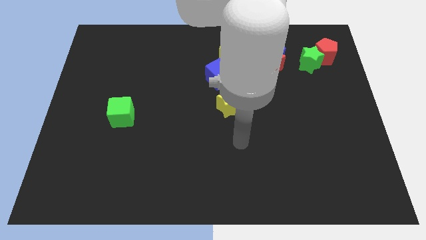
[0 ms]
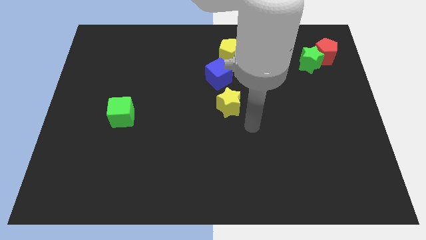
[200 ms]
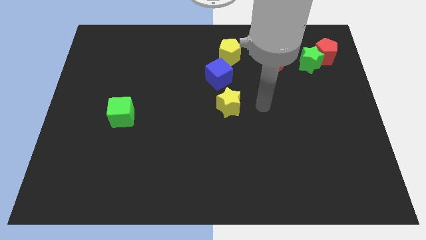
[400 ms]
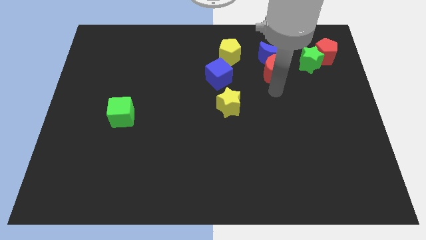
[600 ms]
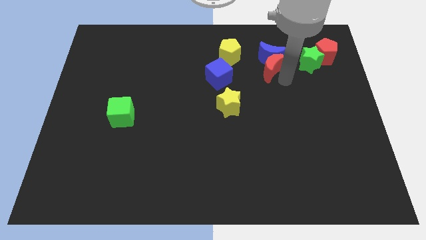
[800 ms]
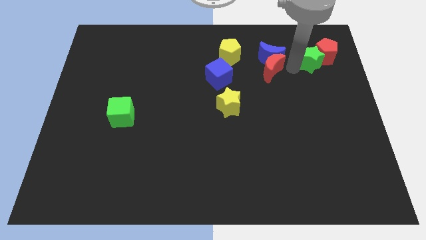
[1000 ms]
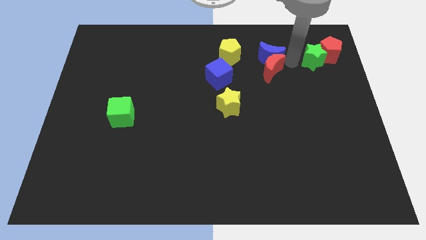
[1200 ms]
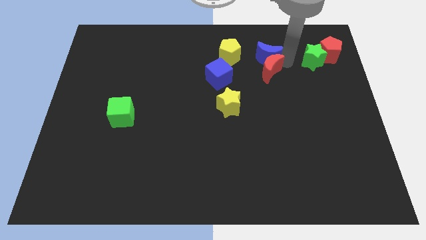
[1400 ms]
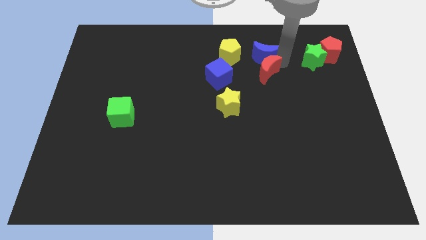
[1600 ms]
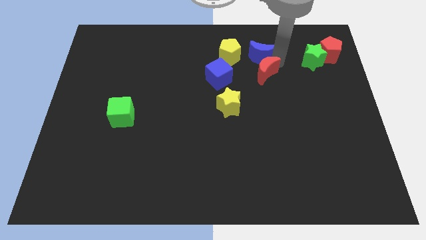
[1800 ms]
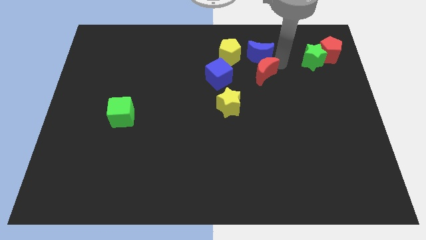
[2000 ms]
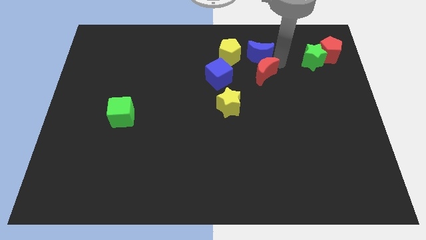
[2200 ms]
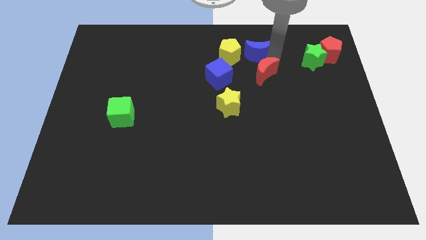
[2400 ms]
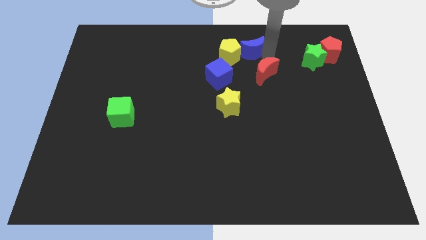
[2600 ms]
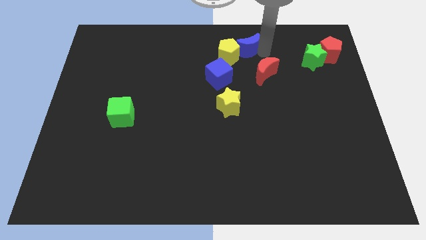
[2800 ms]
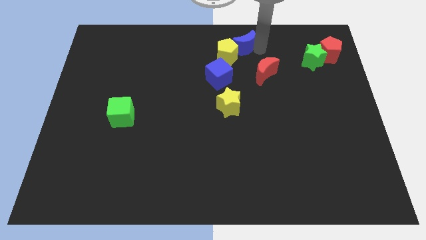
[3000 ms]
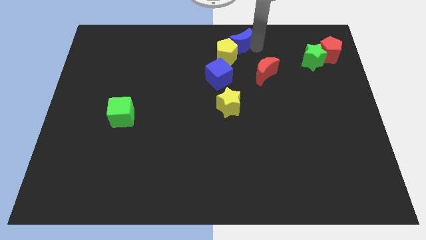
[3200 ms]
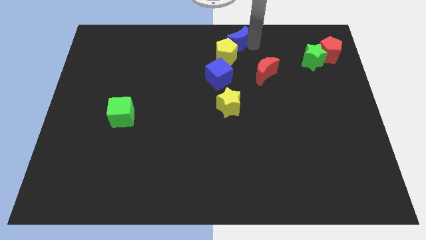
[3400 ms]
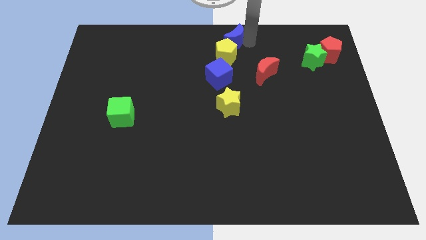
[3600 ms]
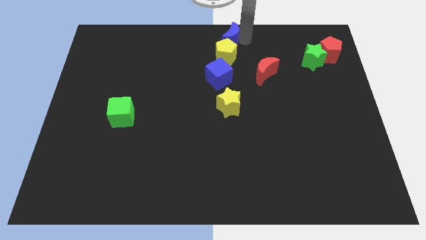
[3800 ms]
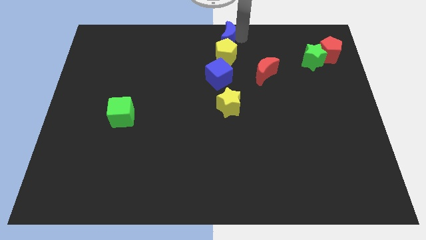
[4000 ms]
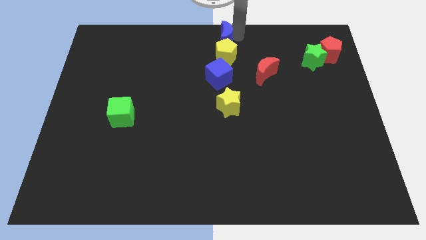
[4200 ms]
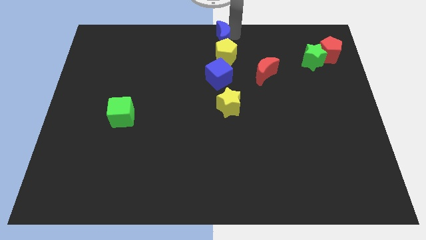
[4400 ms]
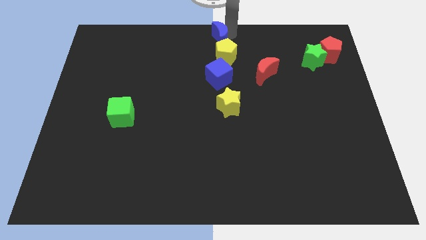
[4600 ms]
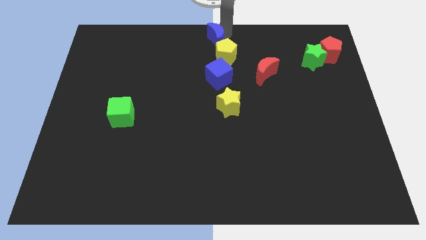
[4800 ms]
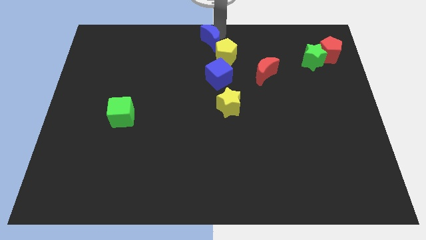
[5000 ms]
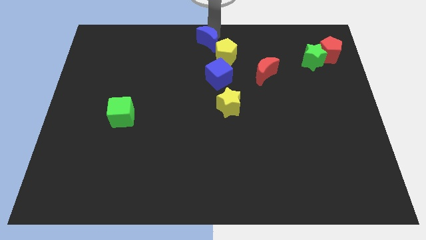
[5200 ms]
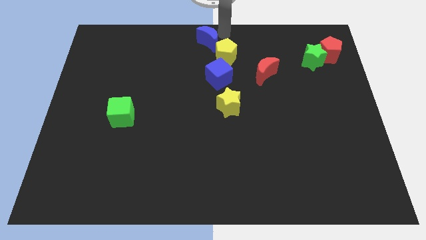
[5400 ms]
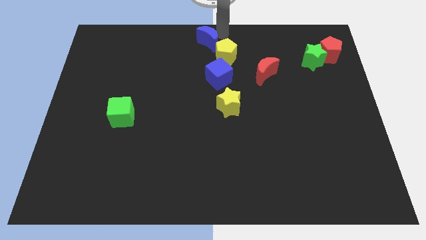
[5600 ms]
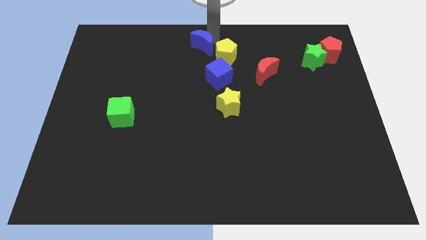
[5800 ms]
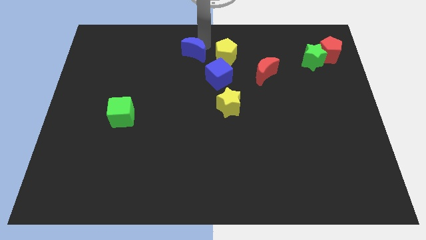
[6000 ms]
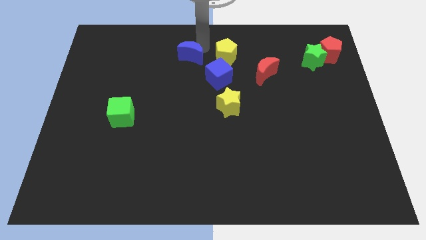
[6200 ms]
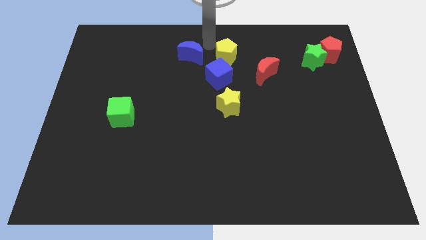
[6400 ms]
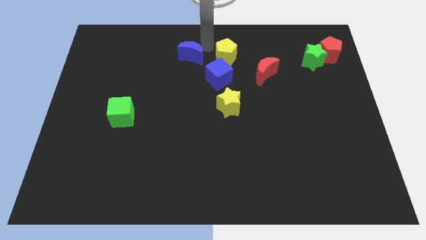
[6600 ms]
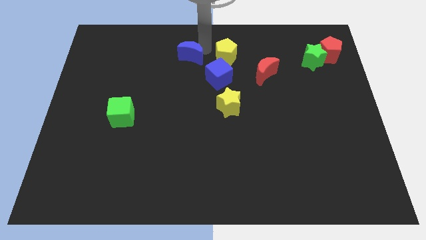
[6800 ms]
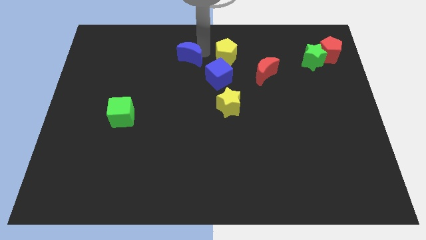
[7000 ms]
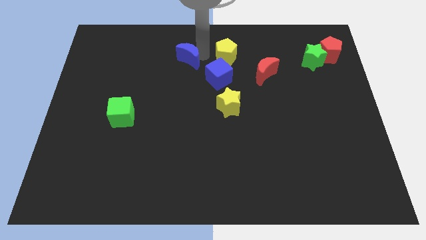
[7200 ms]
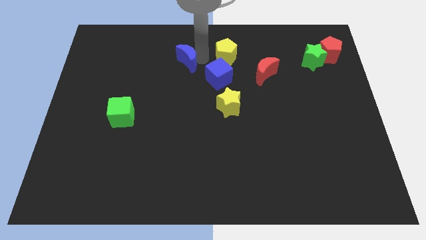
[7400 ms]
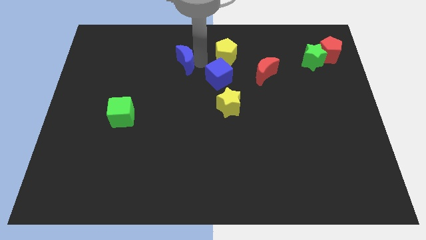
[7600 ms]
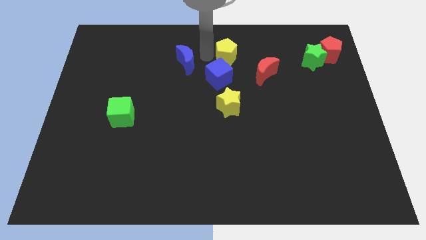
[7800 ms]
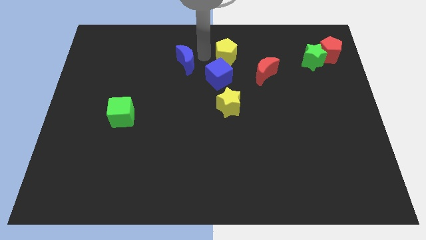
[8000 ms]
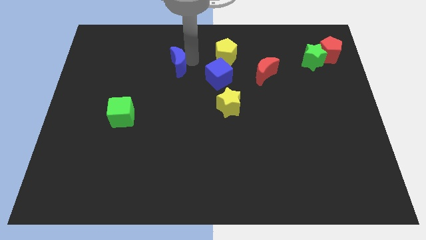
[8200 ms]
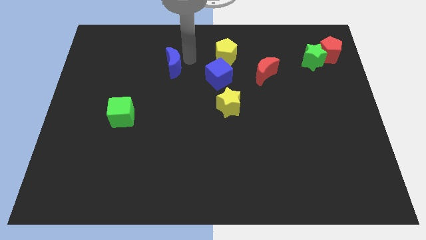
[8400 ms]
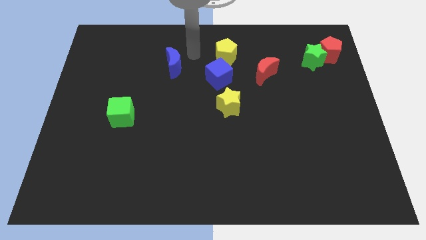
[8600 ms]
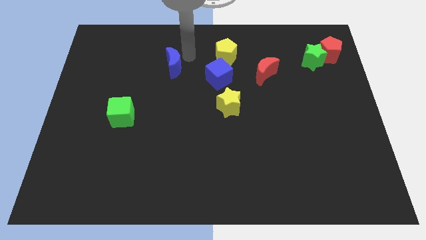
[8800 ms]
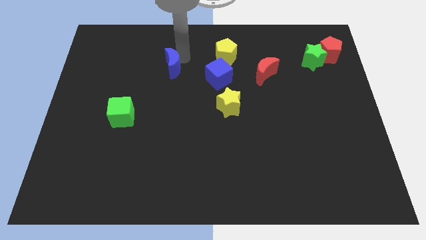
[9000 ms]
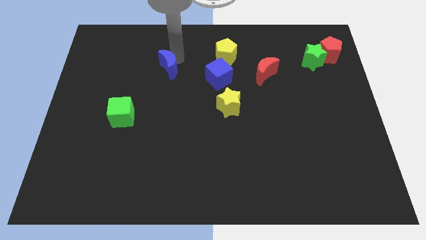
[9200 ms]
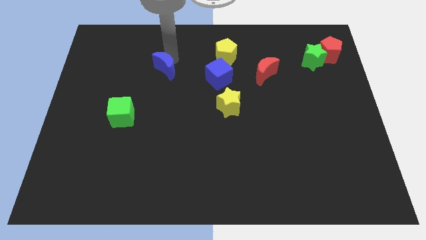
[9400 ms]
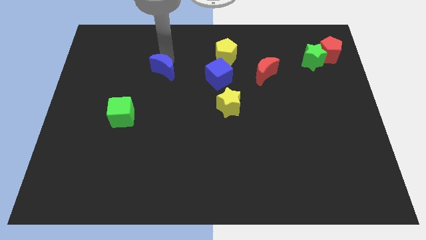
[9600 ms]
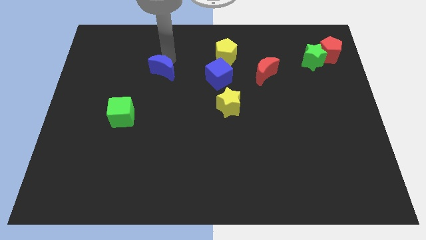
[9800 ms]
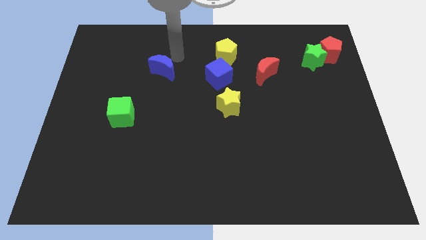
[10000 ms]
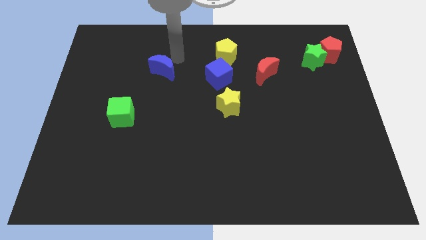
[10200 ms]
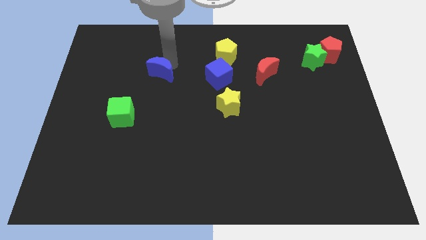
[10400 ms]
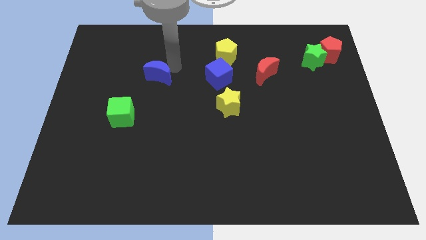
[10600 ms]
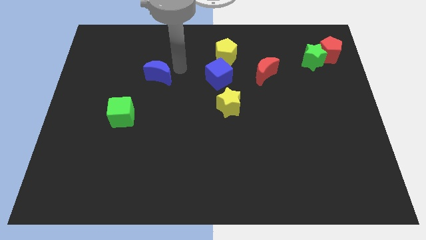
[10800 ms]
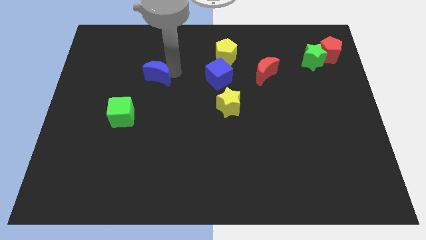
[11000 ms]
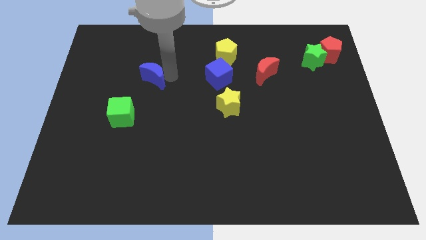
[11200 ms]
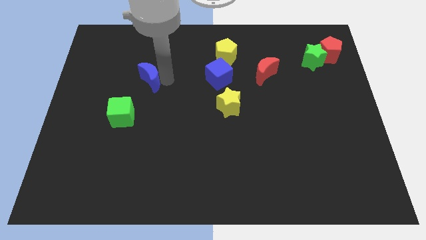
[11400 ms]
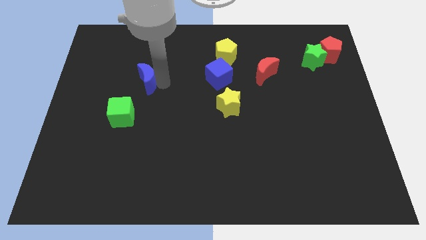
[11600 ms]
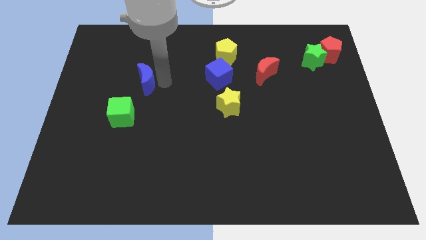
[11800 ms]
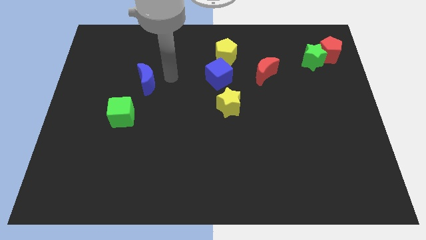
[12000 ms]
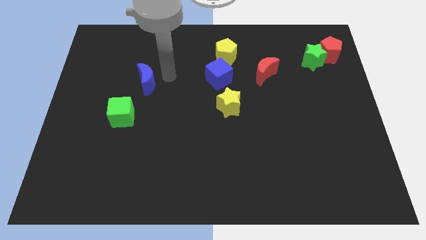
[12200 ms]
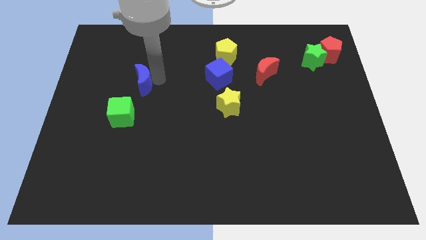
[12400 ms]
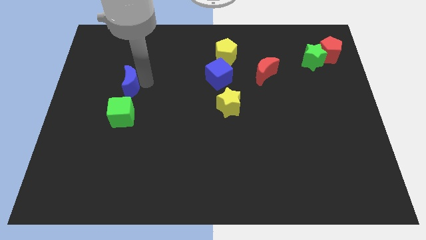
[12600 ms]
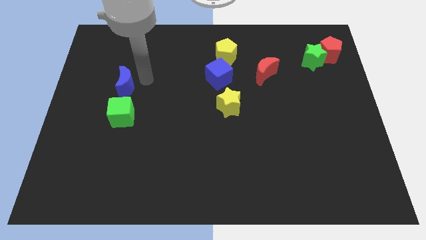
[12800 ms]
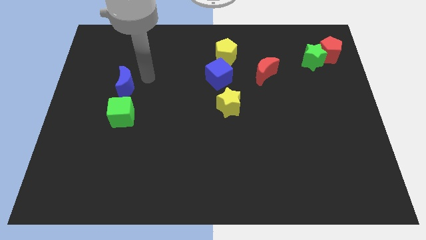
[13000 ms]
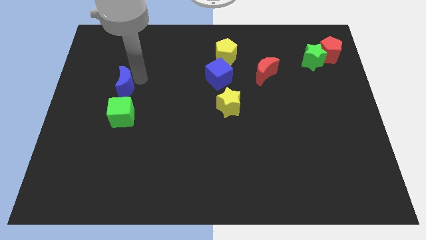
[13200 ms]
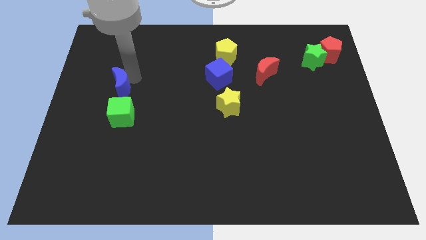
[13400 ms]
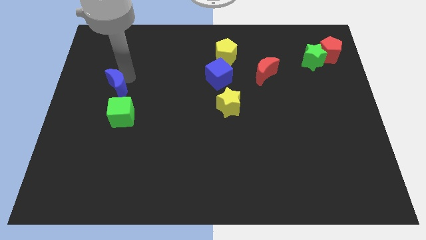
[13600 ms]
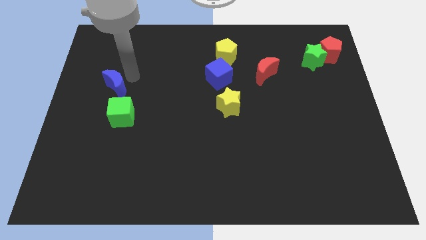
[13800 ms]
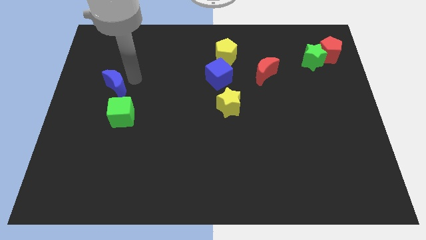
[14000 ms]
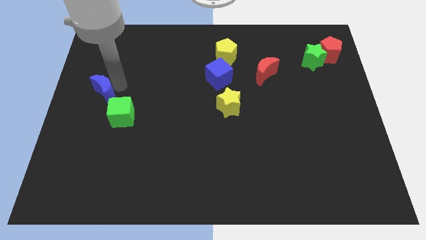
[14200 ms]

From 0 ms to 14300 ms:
push the blue moon to the left side of the board
